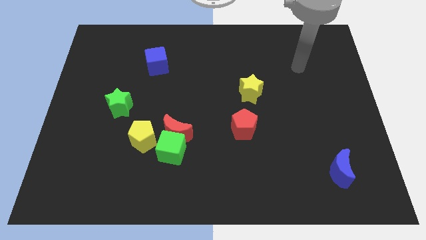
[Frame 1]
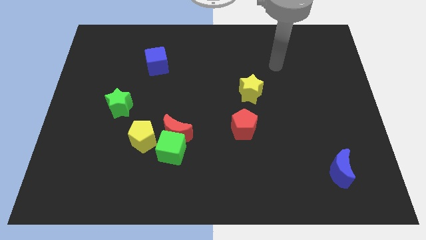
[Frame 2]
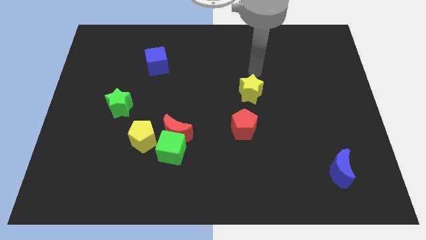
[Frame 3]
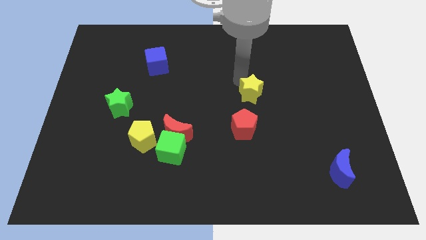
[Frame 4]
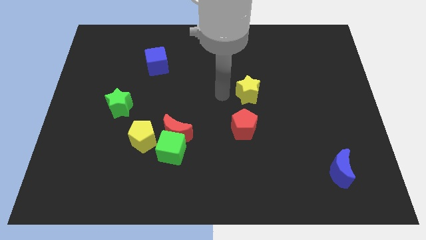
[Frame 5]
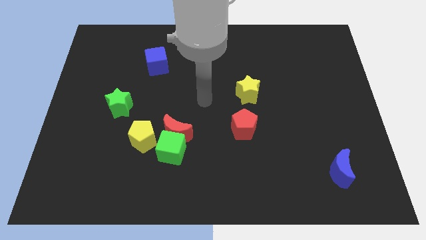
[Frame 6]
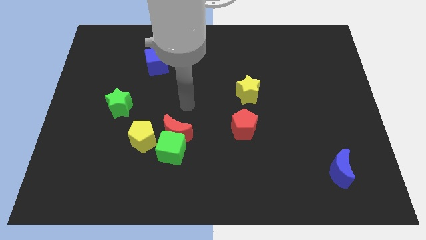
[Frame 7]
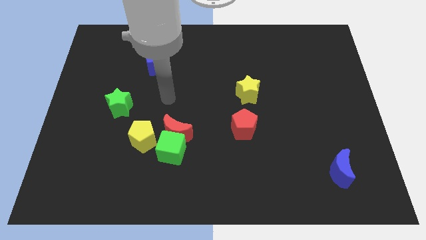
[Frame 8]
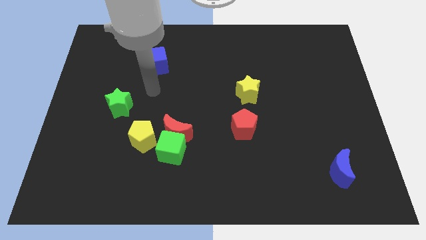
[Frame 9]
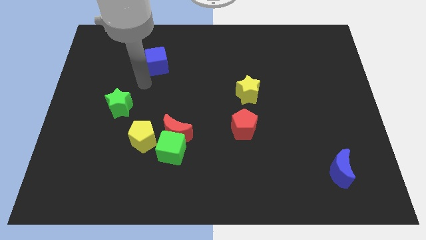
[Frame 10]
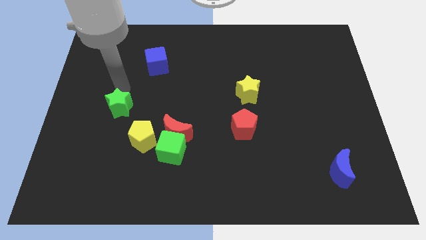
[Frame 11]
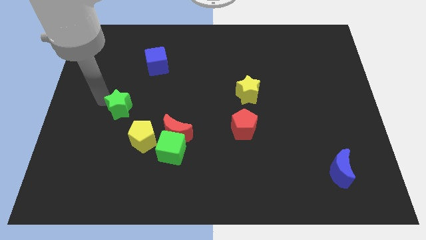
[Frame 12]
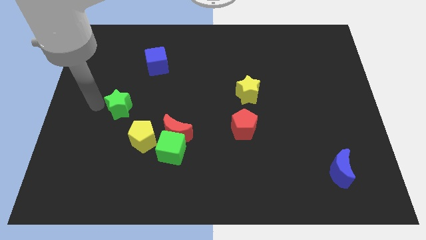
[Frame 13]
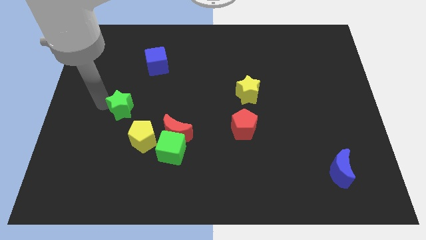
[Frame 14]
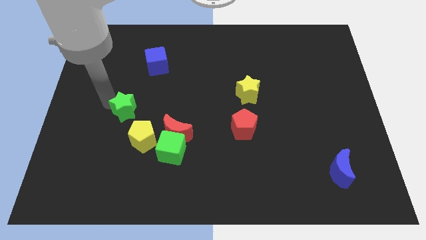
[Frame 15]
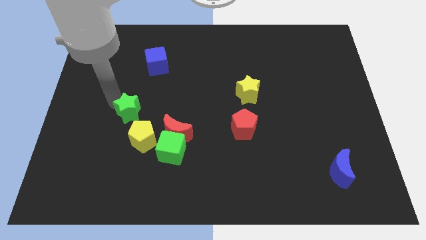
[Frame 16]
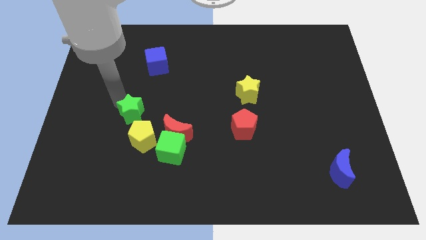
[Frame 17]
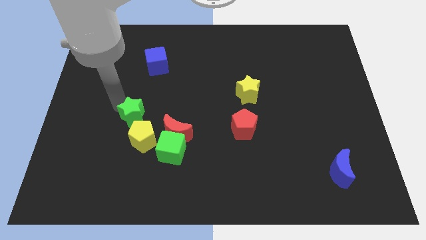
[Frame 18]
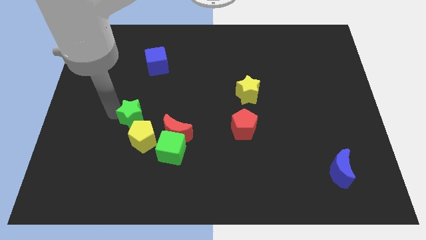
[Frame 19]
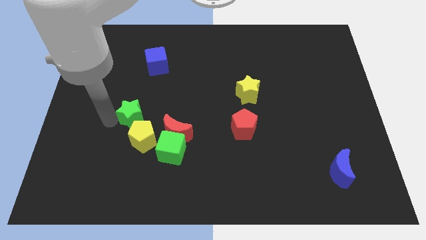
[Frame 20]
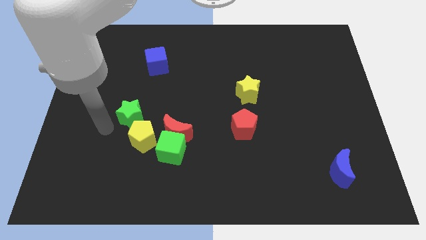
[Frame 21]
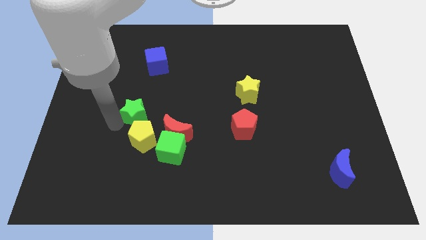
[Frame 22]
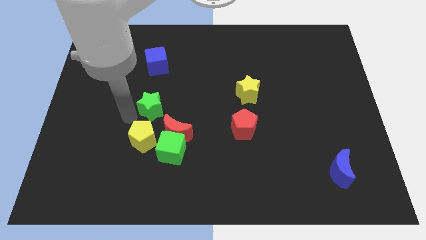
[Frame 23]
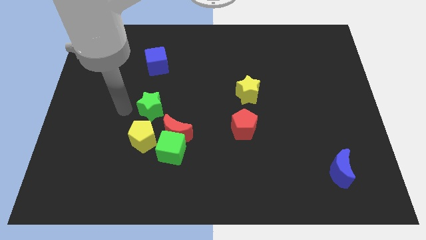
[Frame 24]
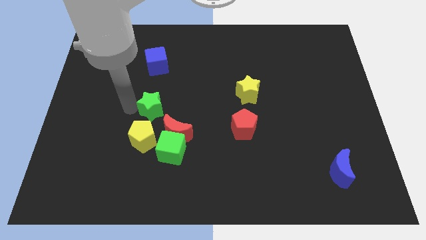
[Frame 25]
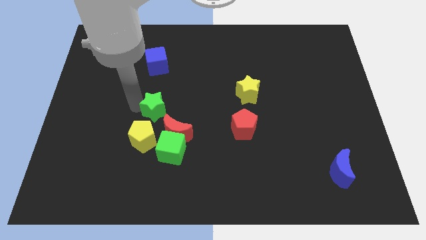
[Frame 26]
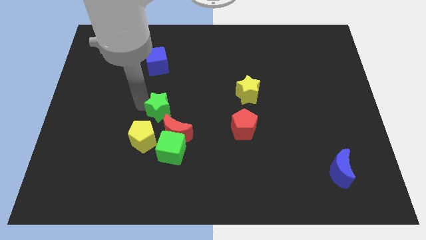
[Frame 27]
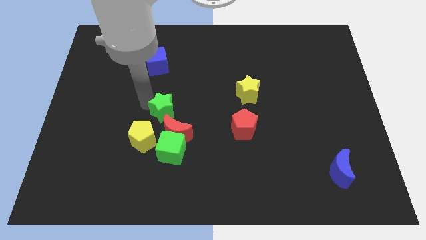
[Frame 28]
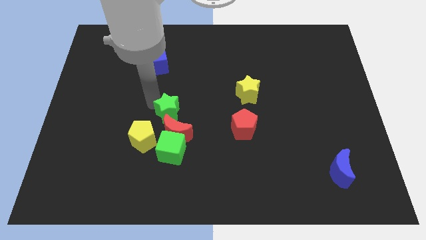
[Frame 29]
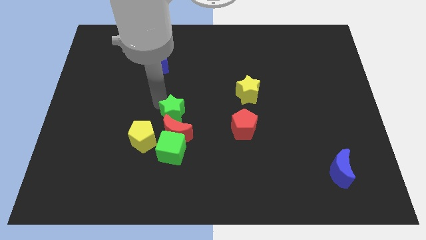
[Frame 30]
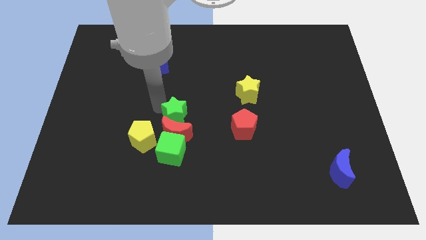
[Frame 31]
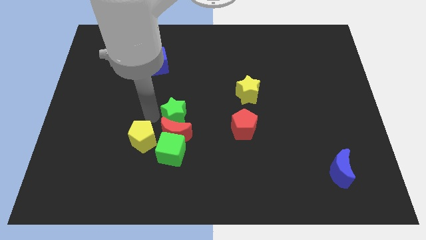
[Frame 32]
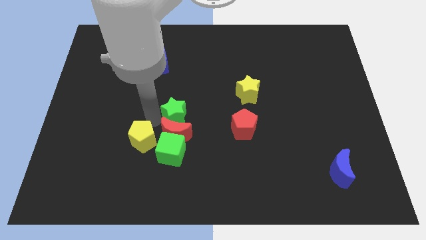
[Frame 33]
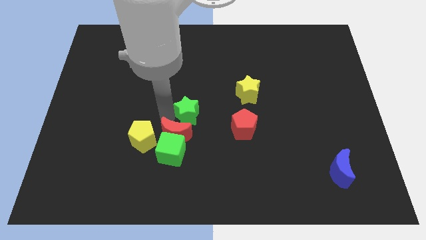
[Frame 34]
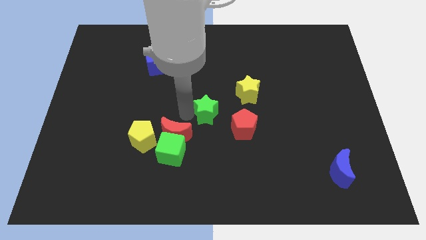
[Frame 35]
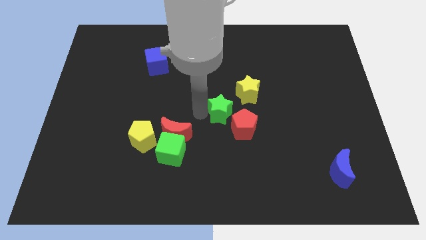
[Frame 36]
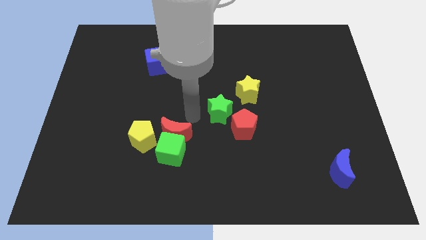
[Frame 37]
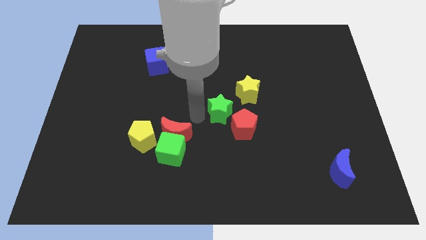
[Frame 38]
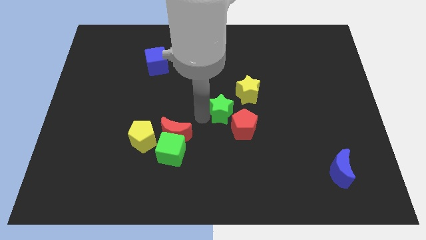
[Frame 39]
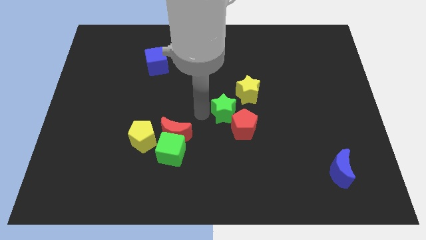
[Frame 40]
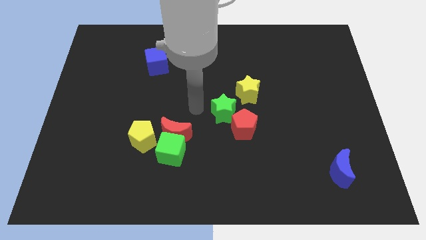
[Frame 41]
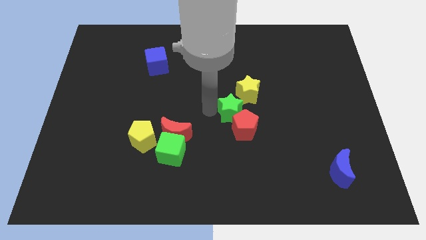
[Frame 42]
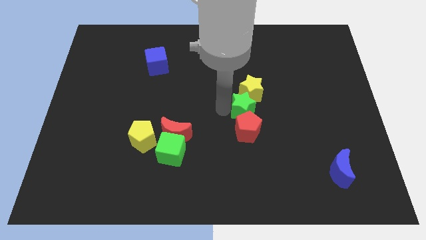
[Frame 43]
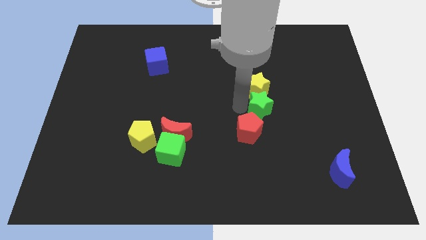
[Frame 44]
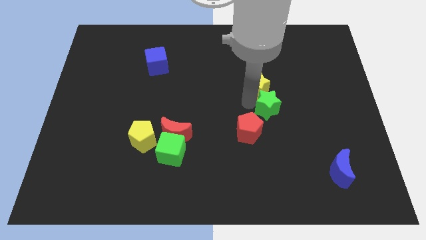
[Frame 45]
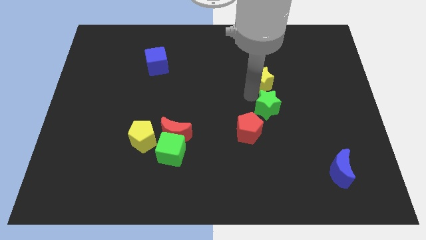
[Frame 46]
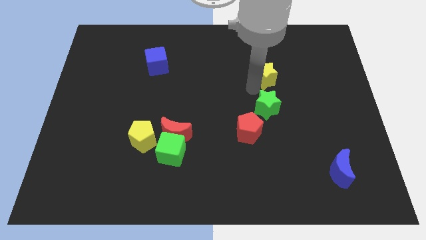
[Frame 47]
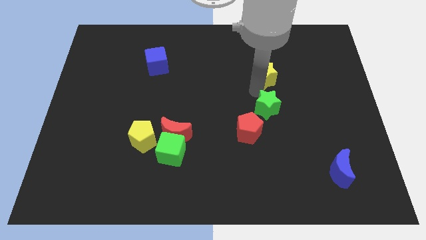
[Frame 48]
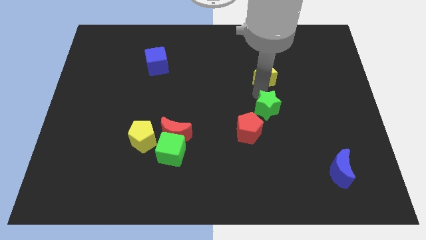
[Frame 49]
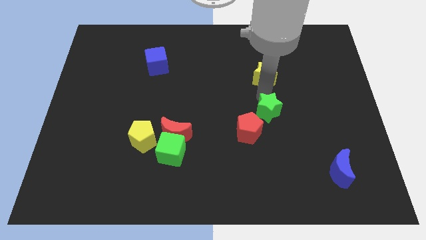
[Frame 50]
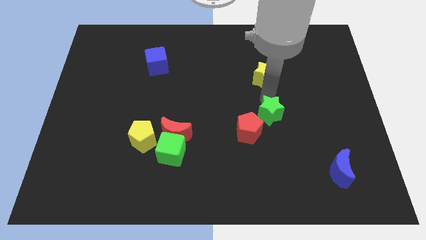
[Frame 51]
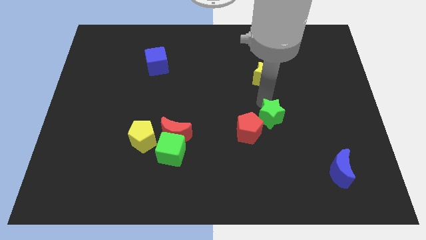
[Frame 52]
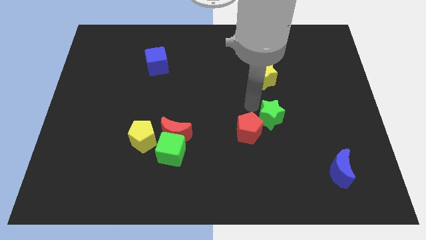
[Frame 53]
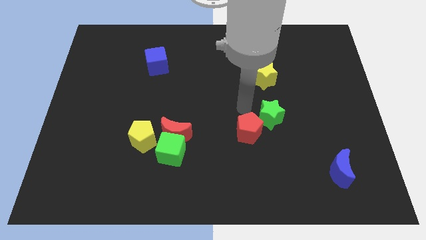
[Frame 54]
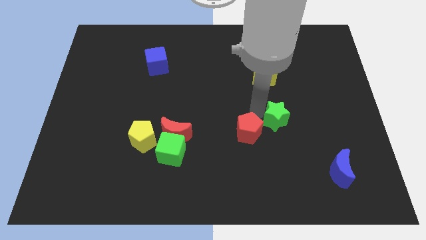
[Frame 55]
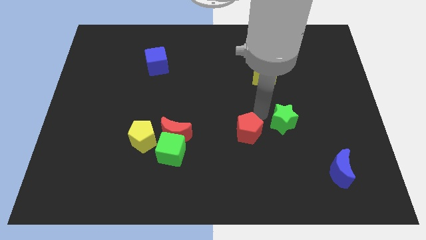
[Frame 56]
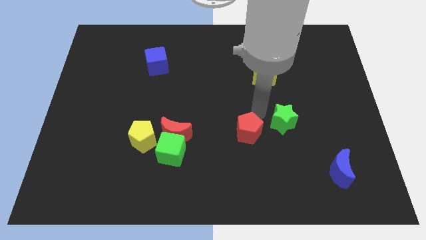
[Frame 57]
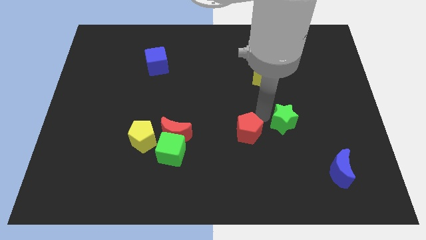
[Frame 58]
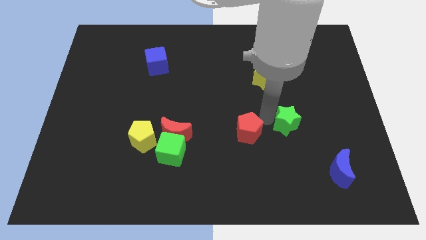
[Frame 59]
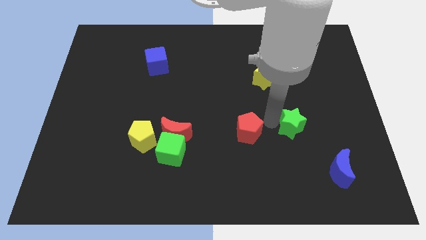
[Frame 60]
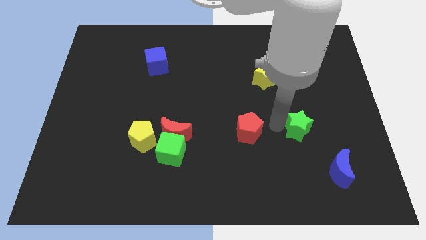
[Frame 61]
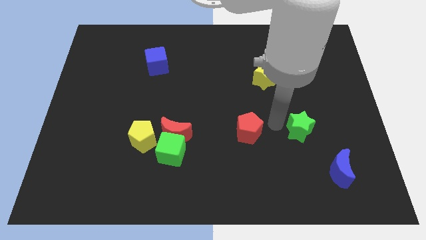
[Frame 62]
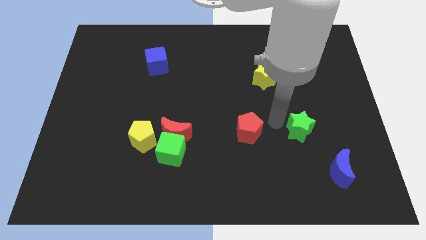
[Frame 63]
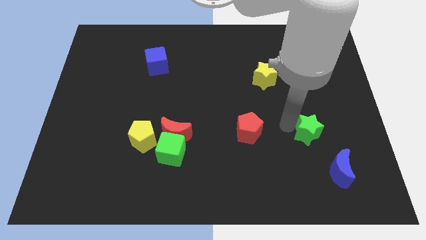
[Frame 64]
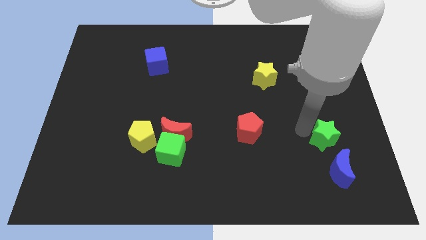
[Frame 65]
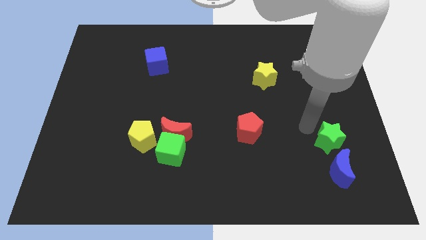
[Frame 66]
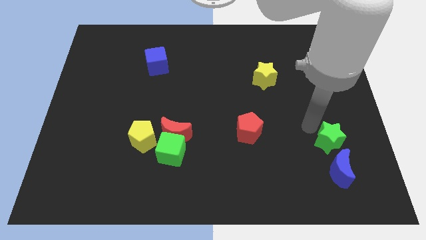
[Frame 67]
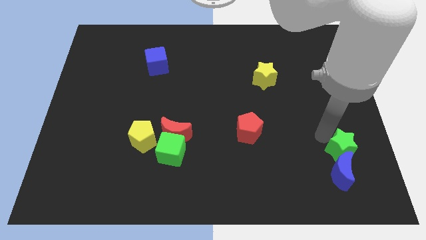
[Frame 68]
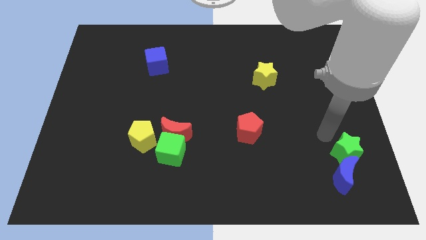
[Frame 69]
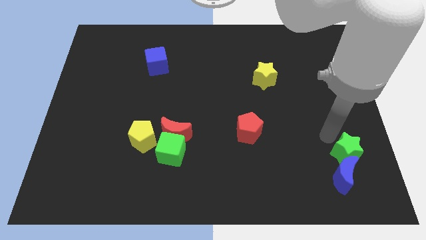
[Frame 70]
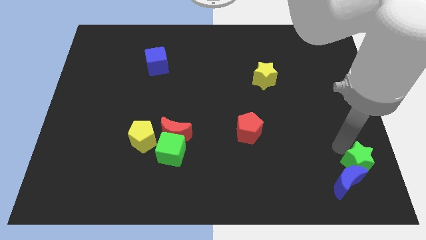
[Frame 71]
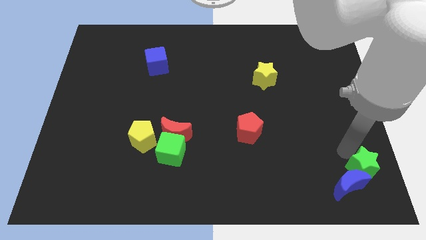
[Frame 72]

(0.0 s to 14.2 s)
put the green star to the bottom right corner
